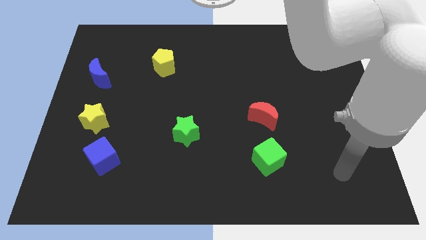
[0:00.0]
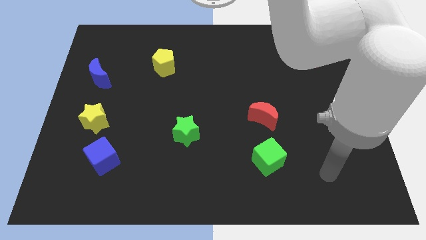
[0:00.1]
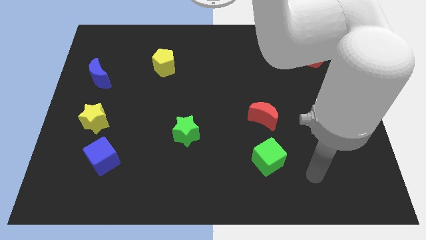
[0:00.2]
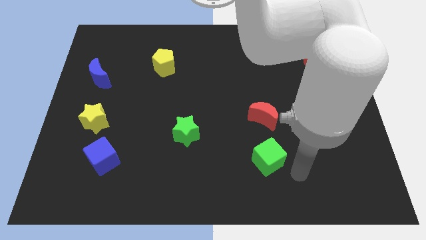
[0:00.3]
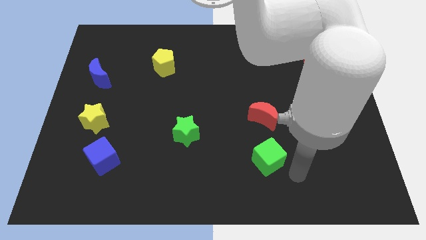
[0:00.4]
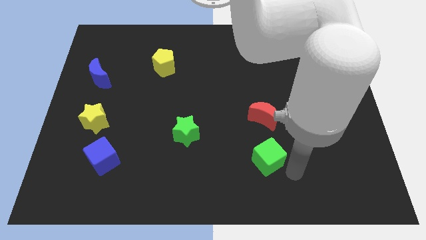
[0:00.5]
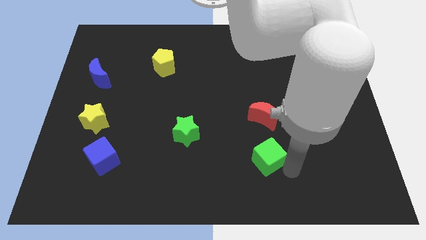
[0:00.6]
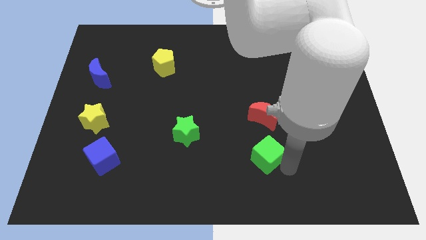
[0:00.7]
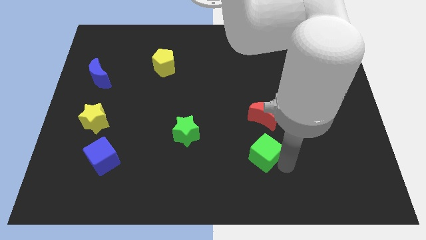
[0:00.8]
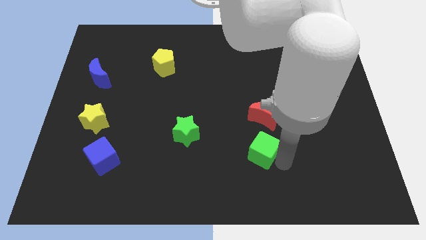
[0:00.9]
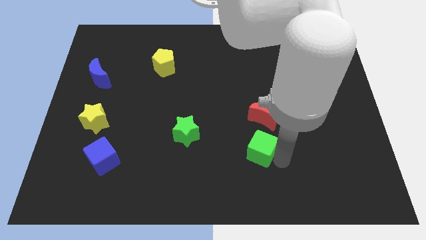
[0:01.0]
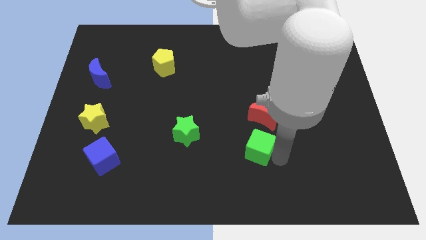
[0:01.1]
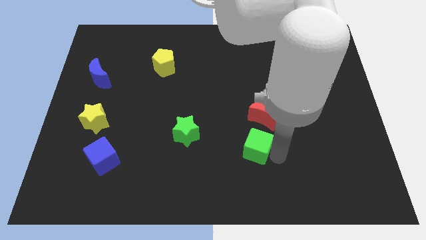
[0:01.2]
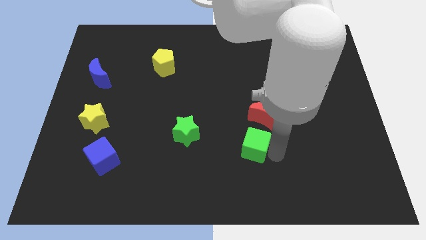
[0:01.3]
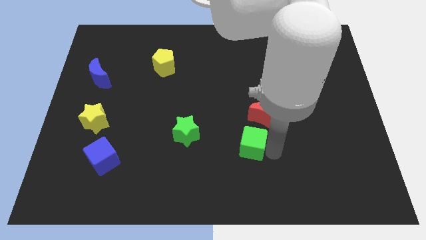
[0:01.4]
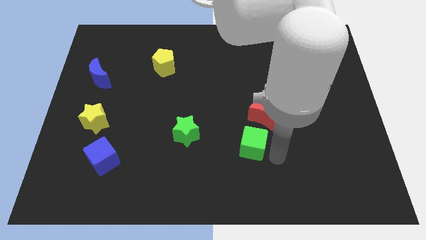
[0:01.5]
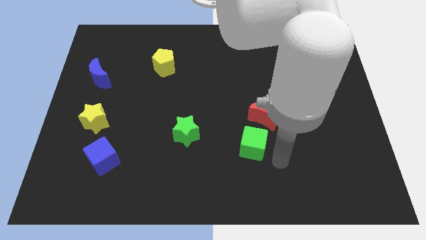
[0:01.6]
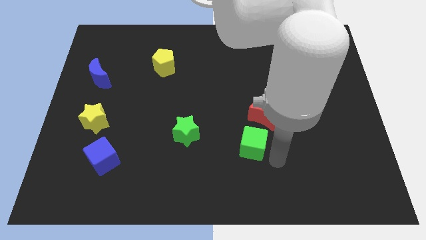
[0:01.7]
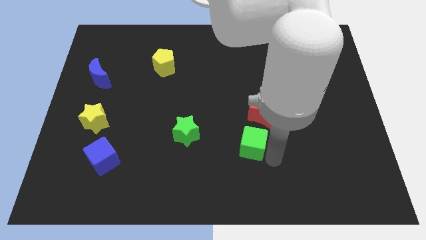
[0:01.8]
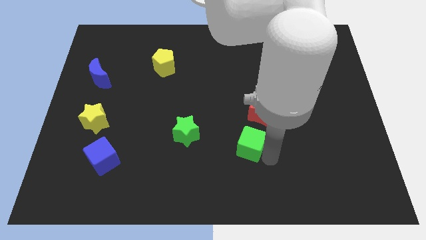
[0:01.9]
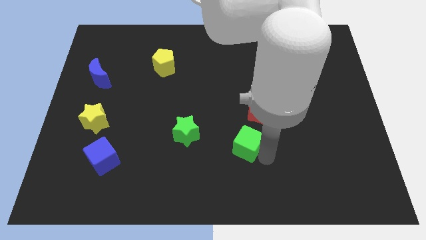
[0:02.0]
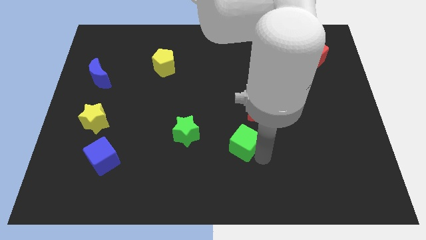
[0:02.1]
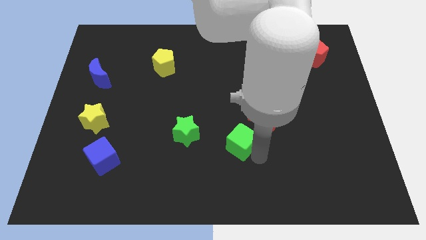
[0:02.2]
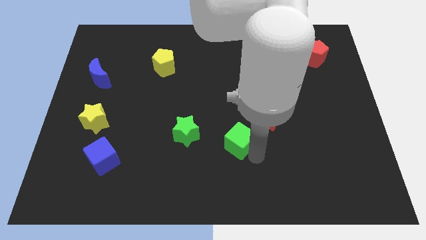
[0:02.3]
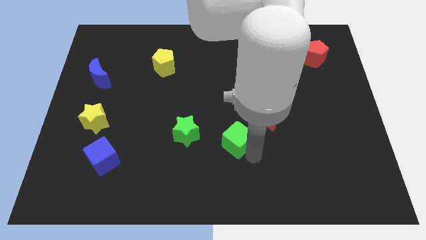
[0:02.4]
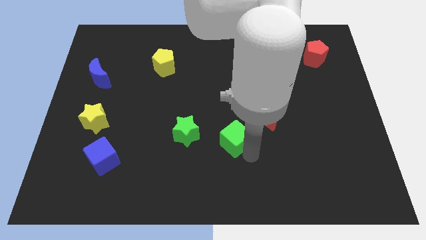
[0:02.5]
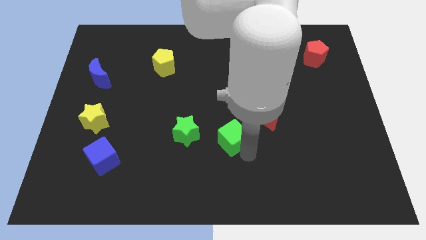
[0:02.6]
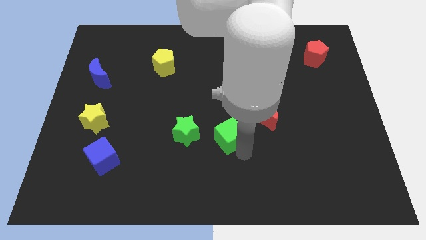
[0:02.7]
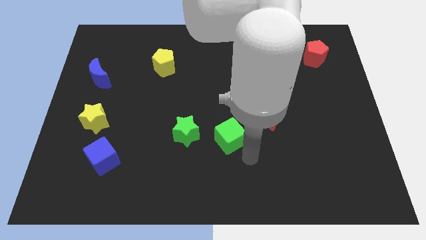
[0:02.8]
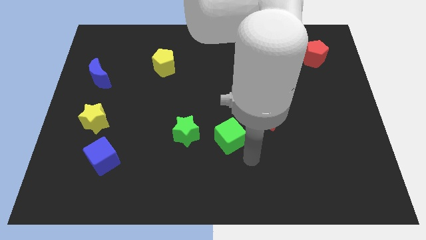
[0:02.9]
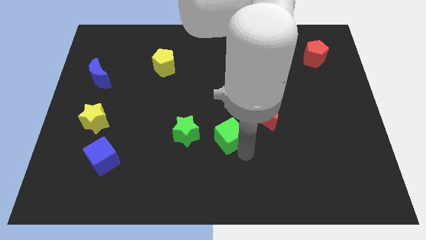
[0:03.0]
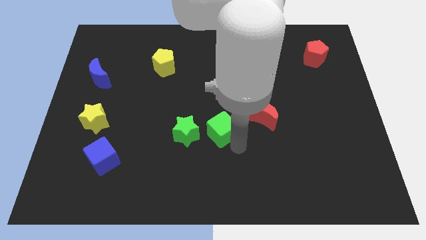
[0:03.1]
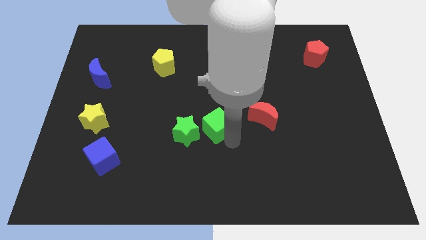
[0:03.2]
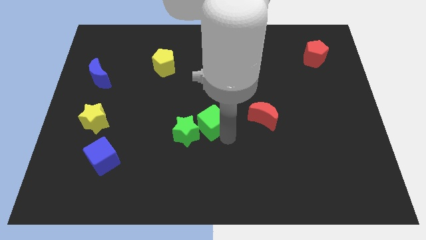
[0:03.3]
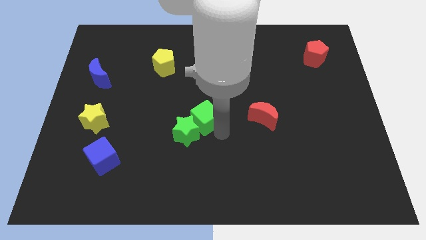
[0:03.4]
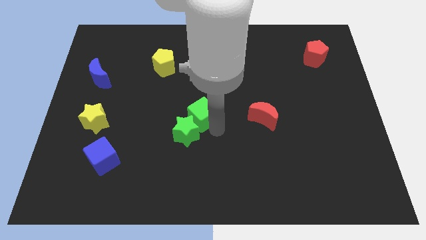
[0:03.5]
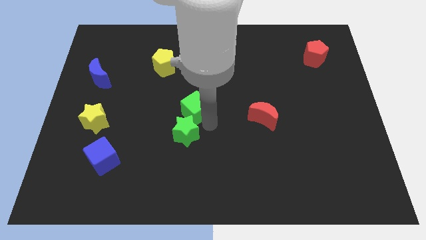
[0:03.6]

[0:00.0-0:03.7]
move the green cube upwards and then to the left

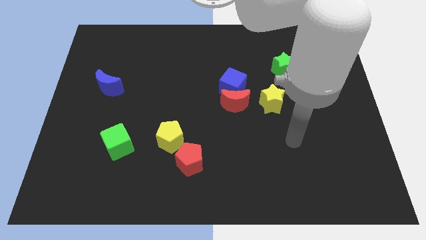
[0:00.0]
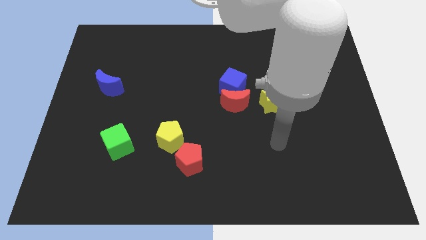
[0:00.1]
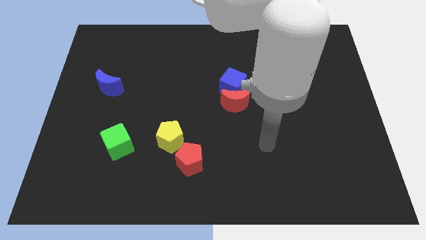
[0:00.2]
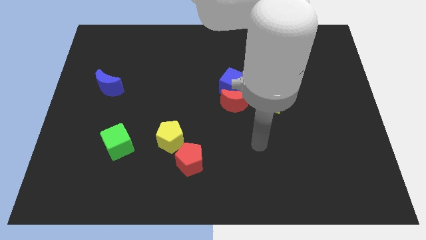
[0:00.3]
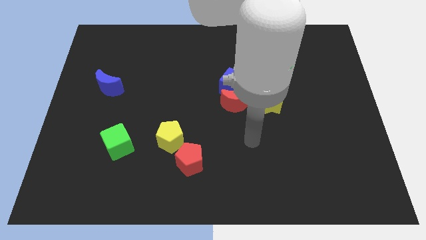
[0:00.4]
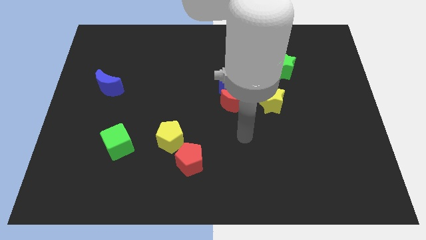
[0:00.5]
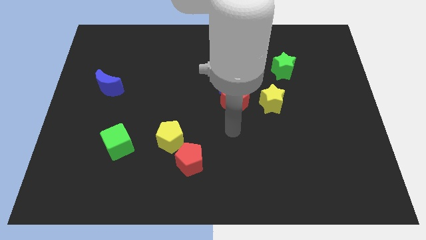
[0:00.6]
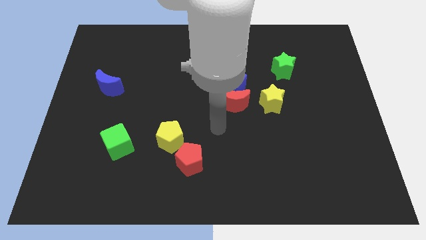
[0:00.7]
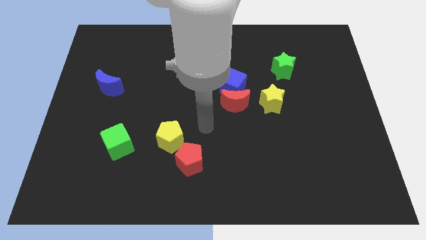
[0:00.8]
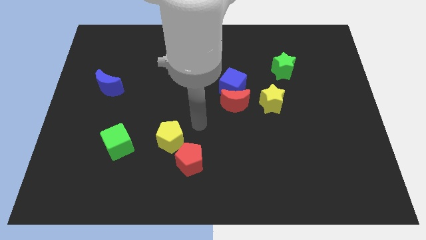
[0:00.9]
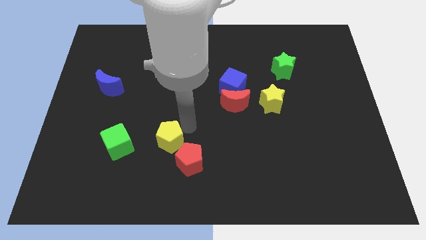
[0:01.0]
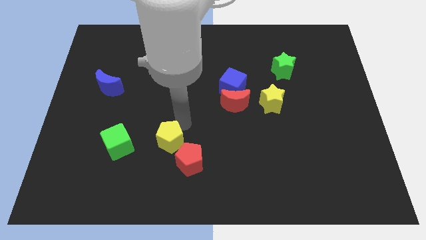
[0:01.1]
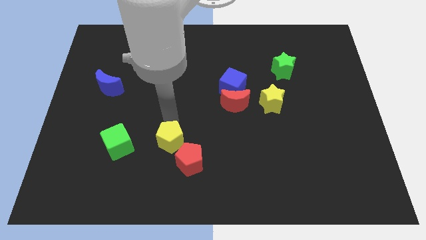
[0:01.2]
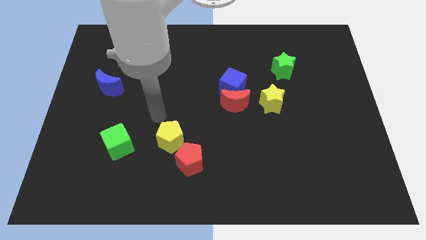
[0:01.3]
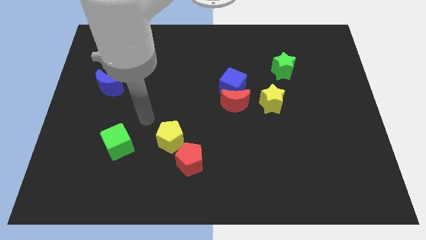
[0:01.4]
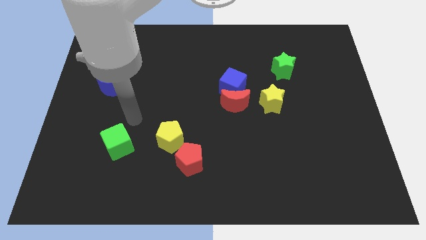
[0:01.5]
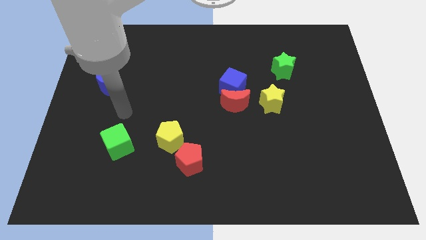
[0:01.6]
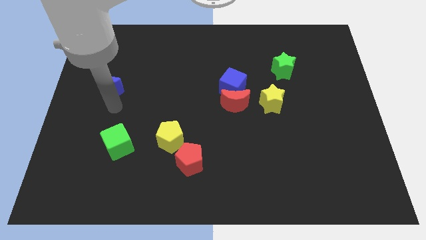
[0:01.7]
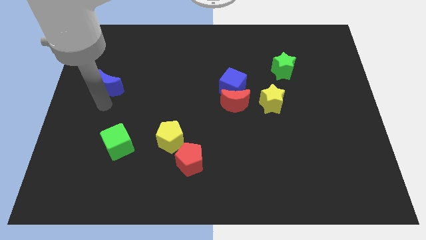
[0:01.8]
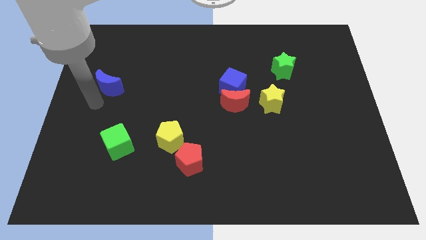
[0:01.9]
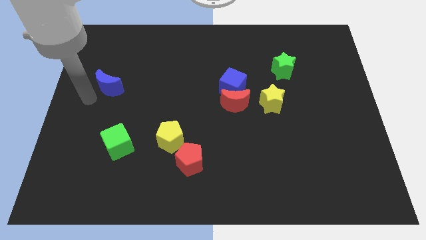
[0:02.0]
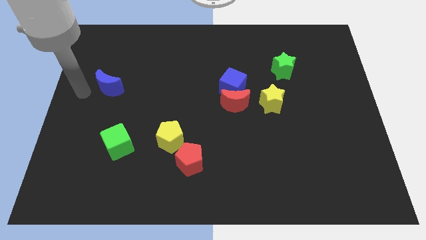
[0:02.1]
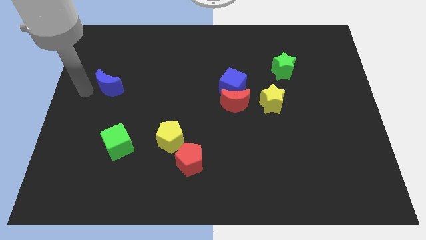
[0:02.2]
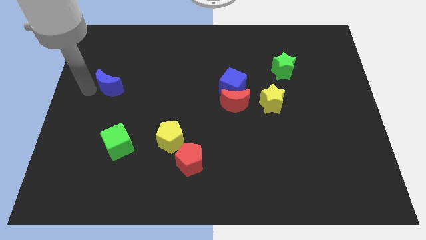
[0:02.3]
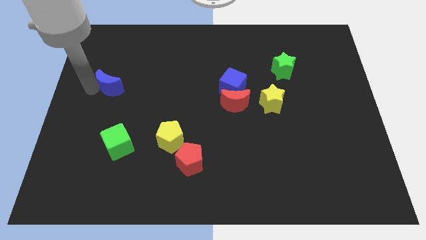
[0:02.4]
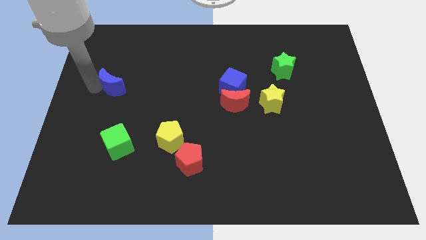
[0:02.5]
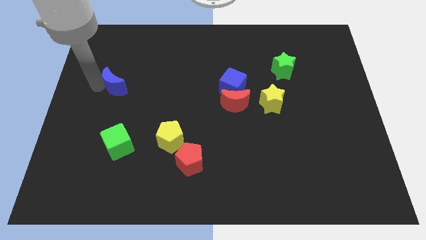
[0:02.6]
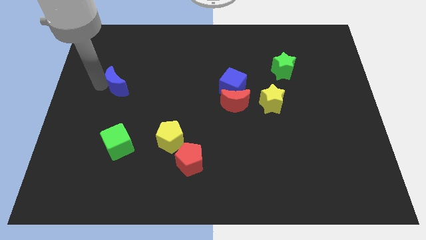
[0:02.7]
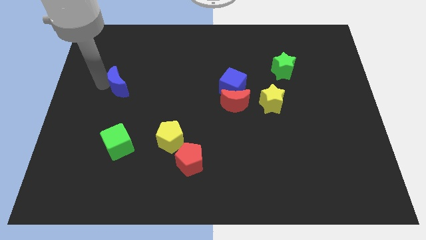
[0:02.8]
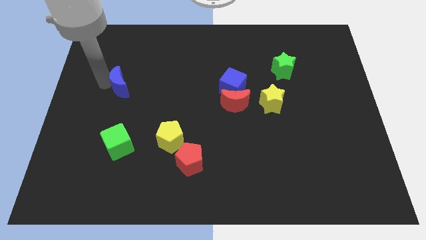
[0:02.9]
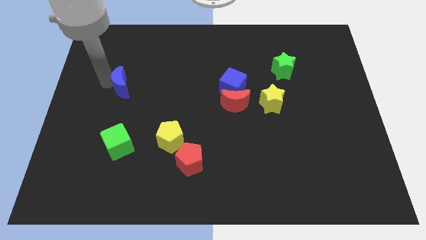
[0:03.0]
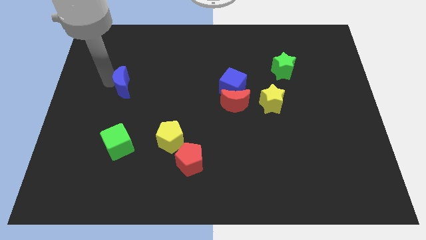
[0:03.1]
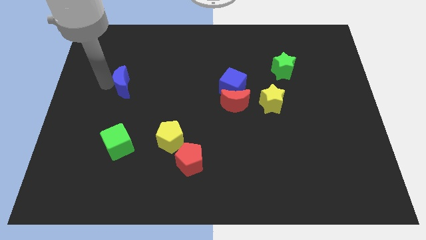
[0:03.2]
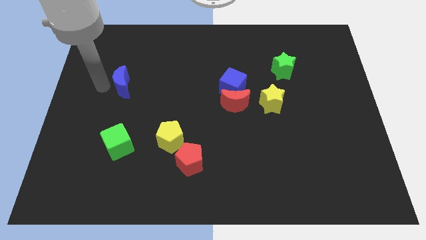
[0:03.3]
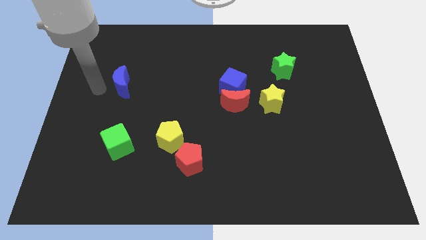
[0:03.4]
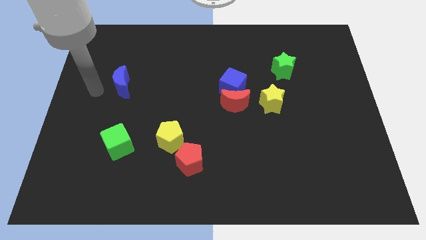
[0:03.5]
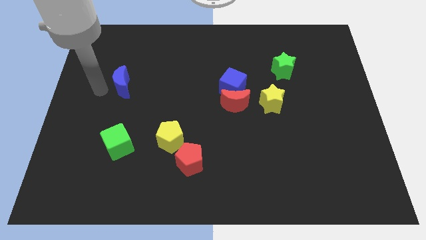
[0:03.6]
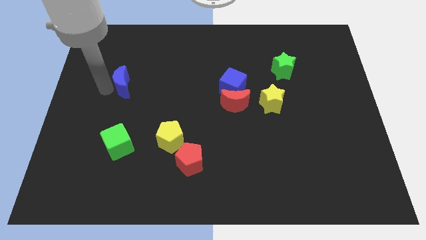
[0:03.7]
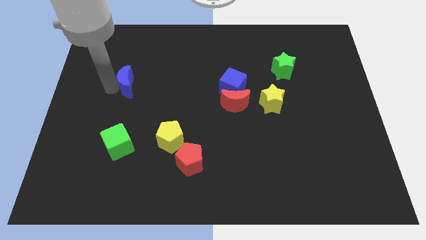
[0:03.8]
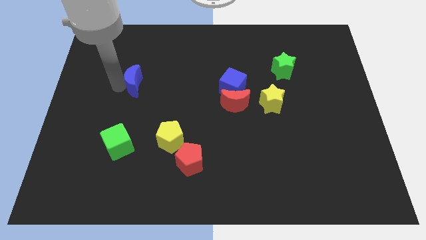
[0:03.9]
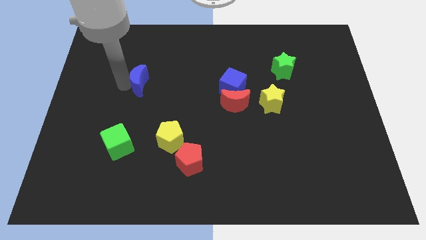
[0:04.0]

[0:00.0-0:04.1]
move the blue moon to the right a little bit
